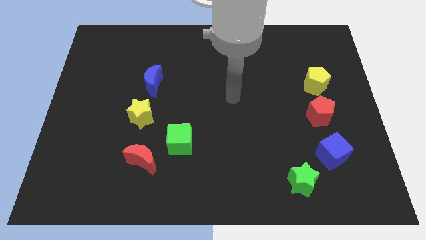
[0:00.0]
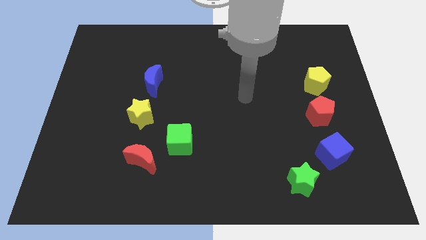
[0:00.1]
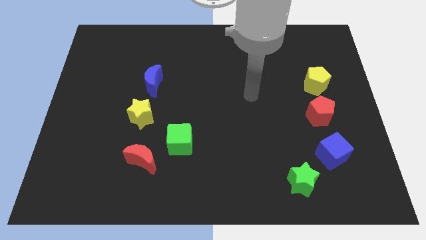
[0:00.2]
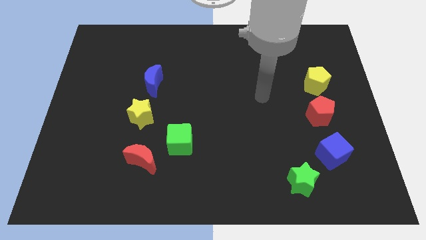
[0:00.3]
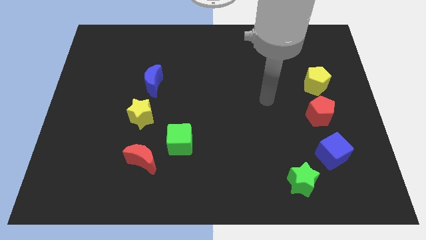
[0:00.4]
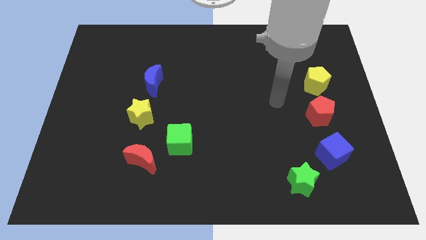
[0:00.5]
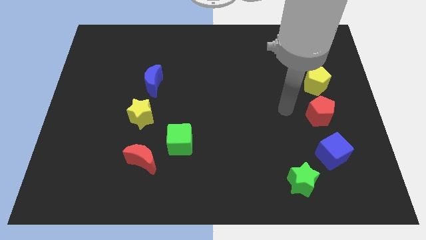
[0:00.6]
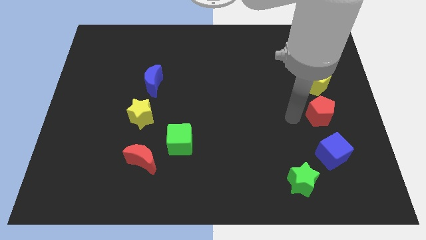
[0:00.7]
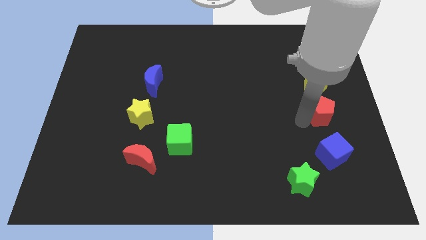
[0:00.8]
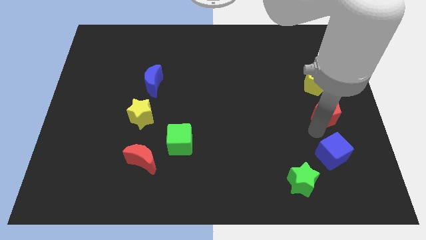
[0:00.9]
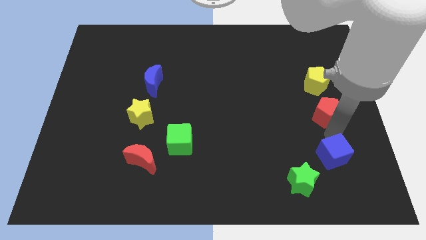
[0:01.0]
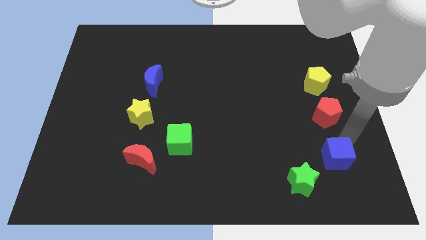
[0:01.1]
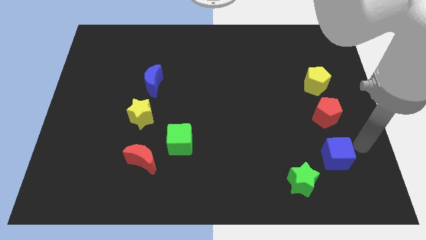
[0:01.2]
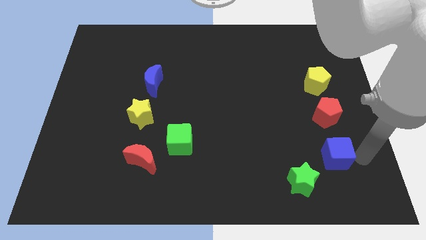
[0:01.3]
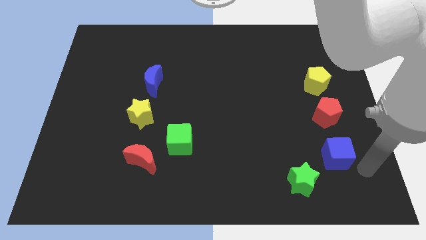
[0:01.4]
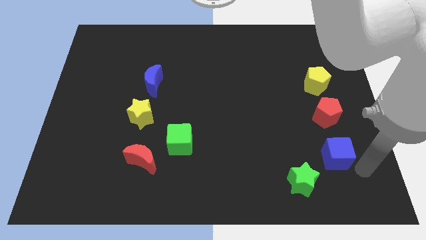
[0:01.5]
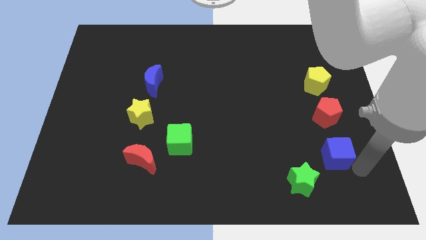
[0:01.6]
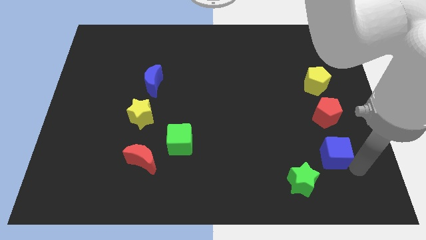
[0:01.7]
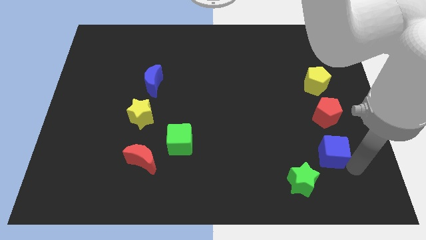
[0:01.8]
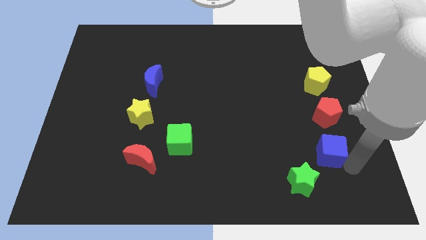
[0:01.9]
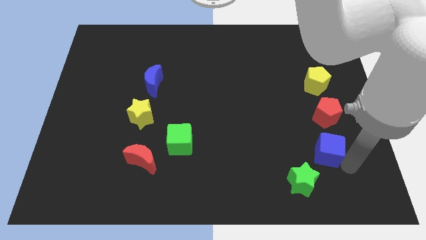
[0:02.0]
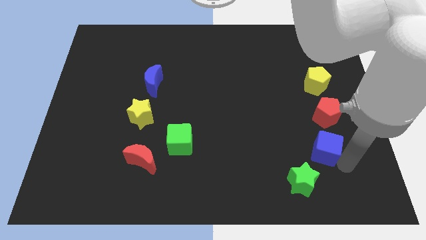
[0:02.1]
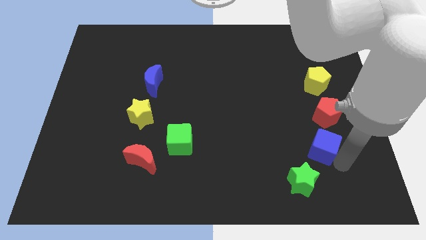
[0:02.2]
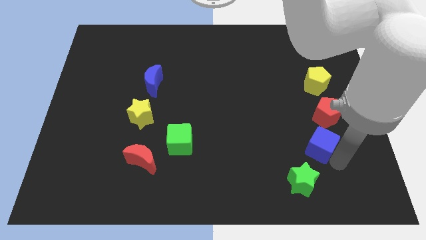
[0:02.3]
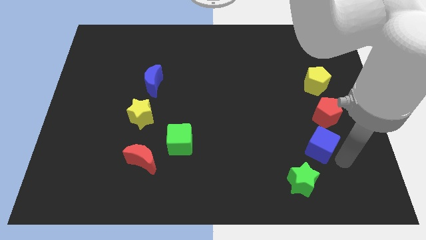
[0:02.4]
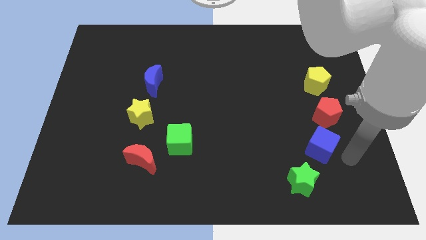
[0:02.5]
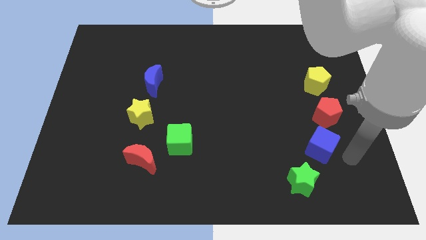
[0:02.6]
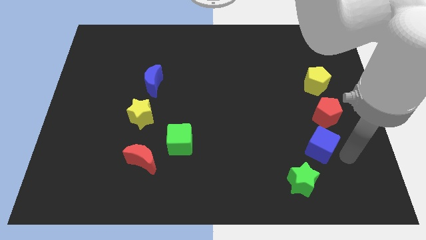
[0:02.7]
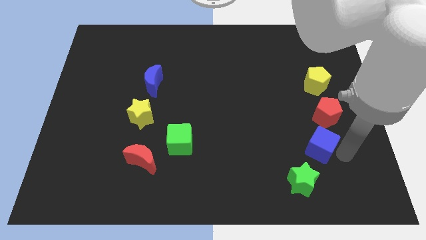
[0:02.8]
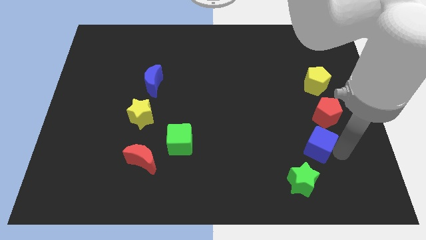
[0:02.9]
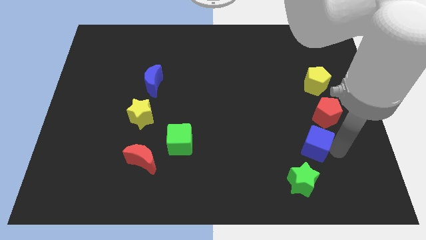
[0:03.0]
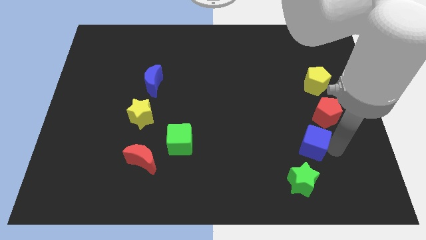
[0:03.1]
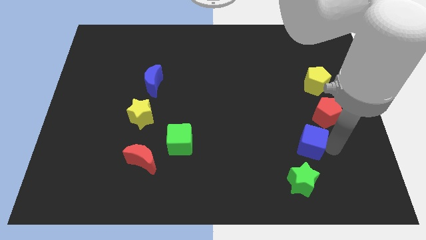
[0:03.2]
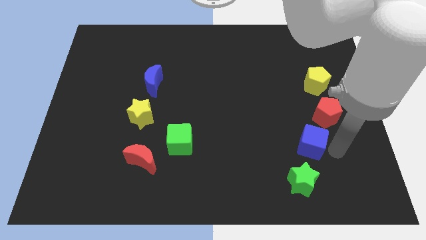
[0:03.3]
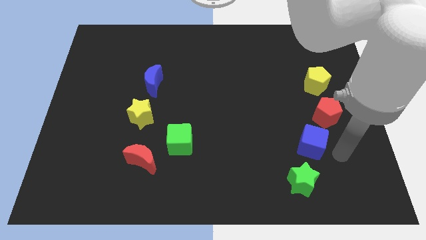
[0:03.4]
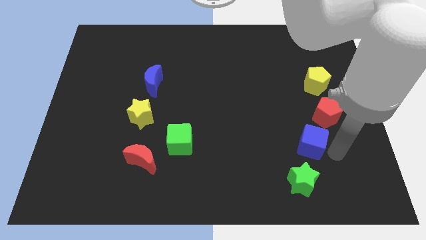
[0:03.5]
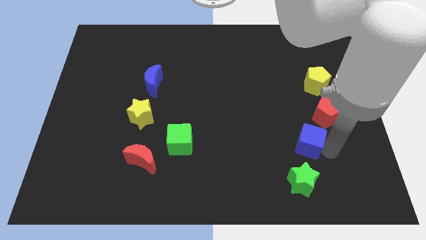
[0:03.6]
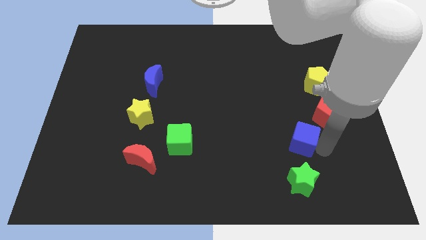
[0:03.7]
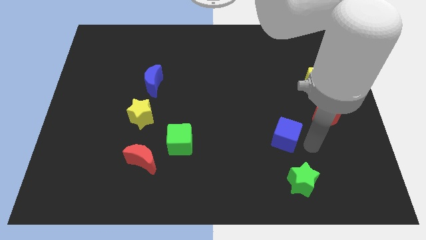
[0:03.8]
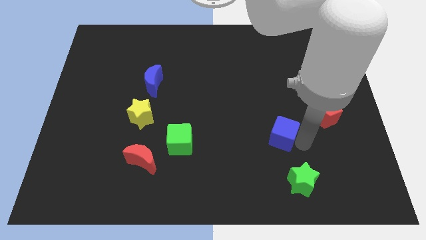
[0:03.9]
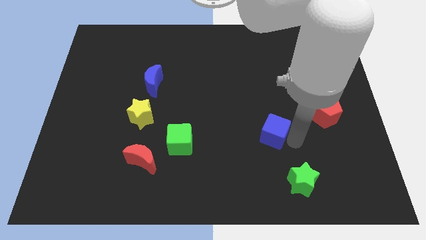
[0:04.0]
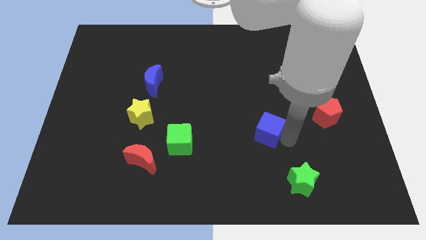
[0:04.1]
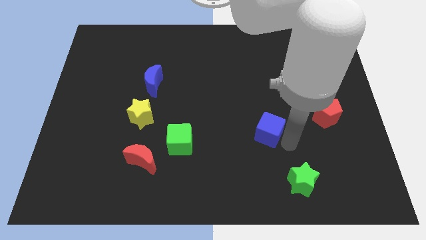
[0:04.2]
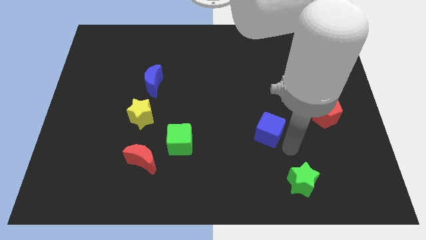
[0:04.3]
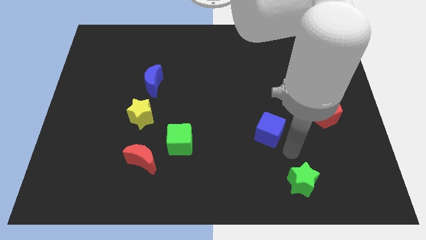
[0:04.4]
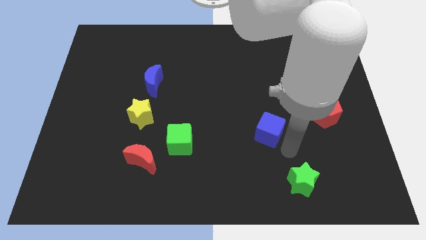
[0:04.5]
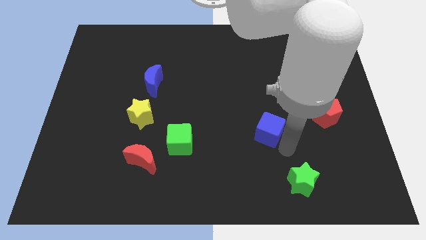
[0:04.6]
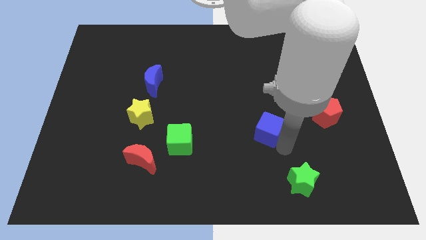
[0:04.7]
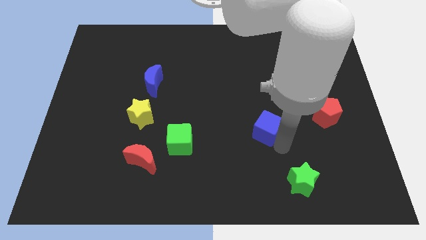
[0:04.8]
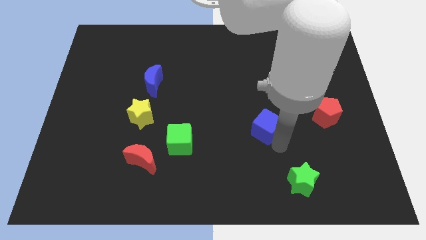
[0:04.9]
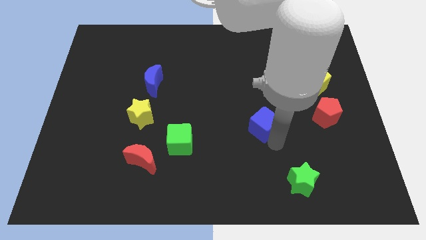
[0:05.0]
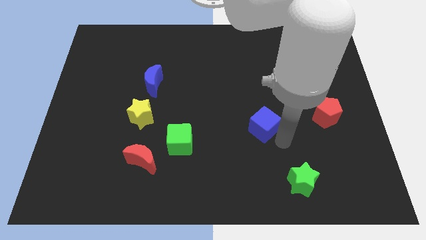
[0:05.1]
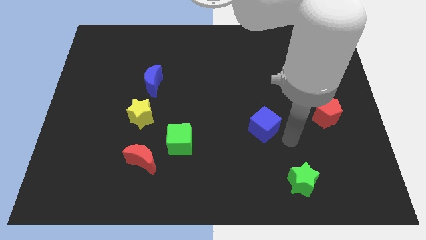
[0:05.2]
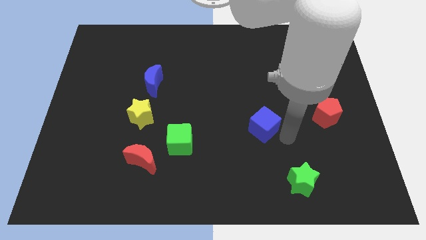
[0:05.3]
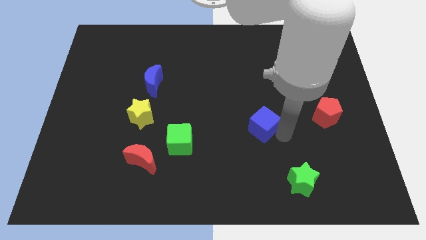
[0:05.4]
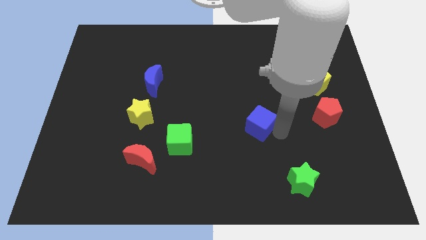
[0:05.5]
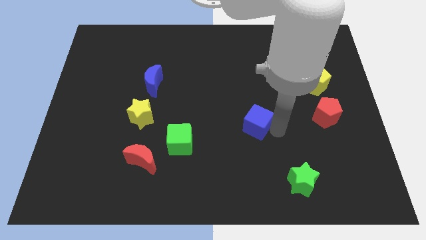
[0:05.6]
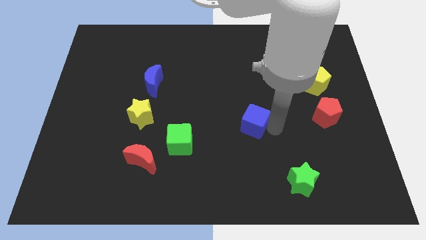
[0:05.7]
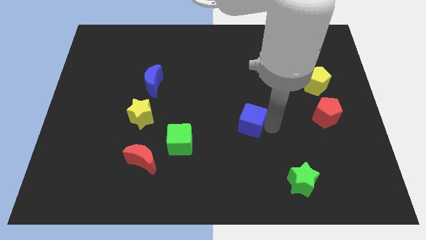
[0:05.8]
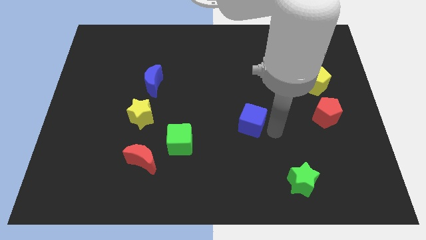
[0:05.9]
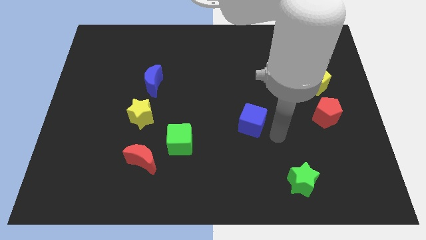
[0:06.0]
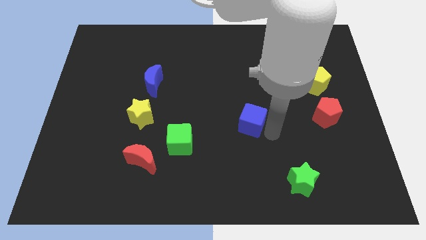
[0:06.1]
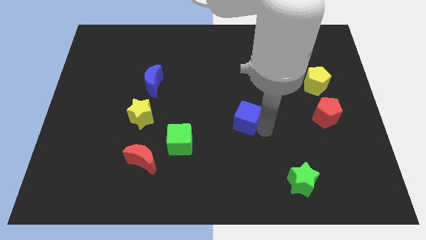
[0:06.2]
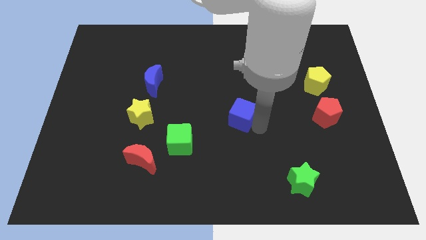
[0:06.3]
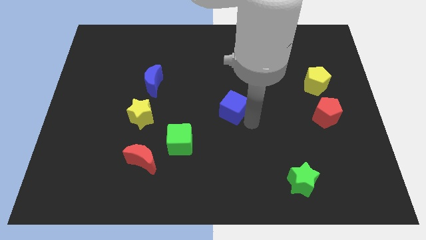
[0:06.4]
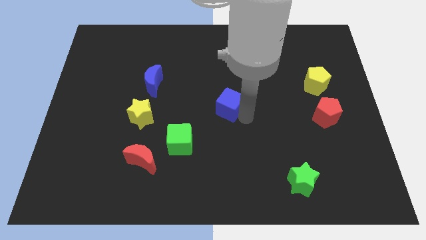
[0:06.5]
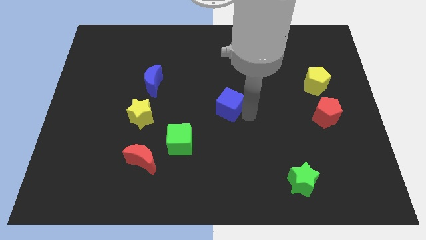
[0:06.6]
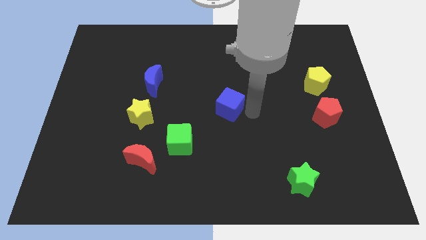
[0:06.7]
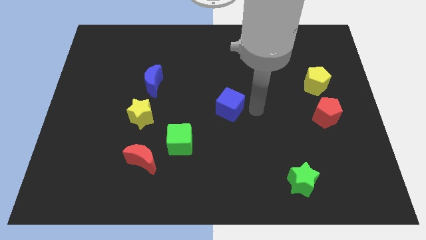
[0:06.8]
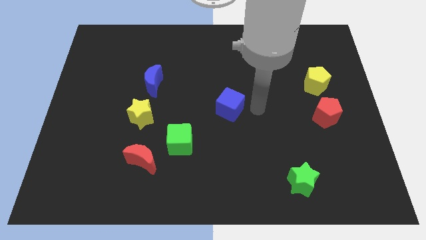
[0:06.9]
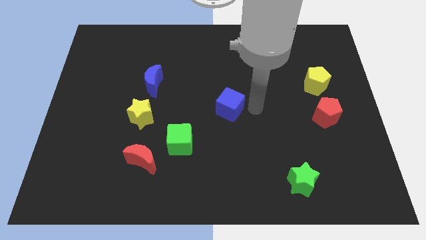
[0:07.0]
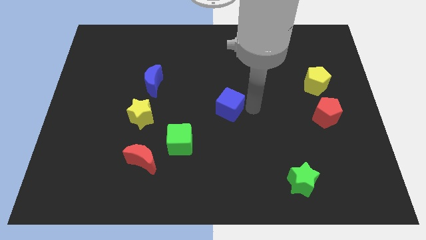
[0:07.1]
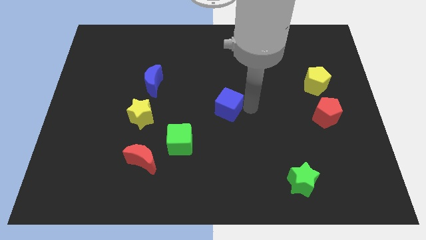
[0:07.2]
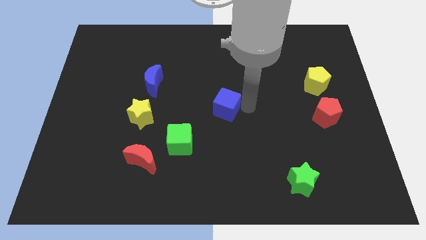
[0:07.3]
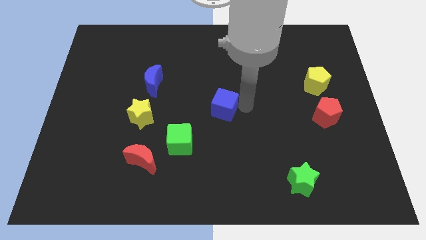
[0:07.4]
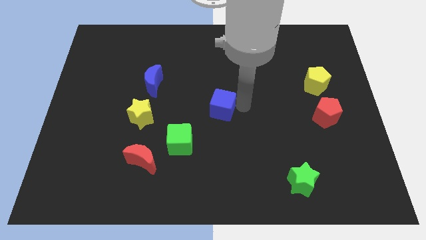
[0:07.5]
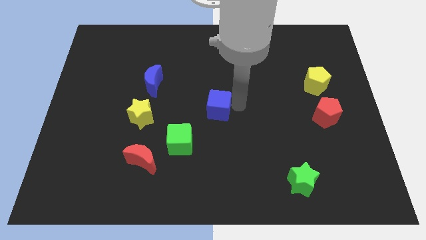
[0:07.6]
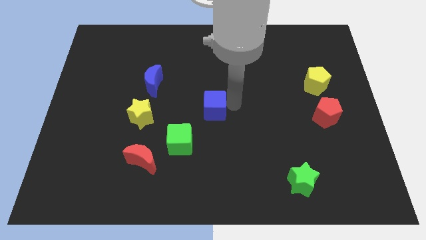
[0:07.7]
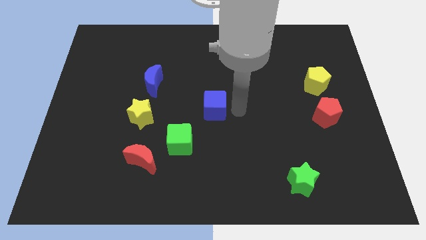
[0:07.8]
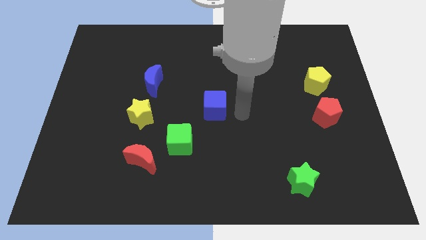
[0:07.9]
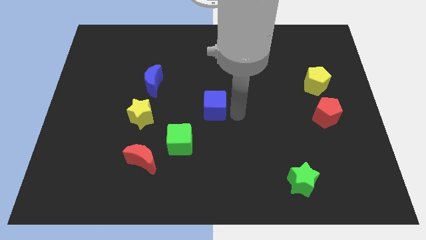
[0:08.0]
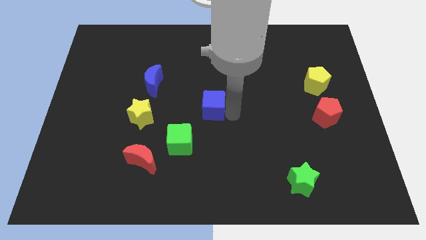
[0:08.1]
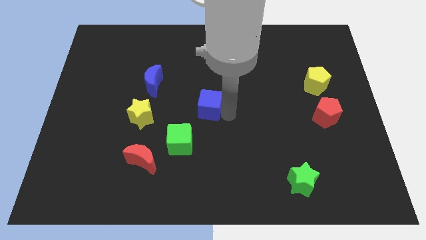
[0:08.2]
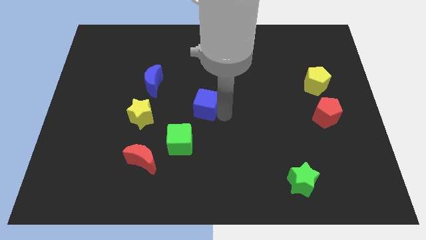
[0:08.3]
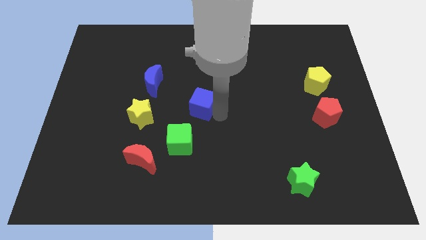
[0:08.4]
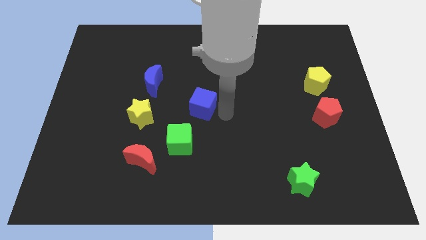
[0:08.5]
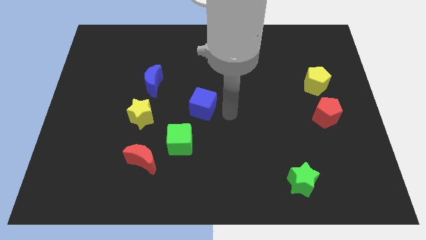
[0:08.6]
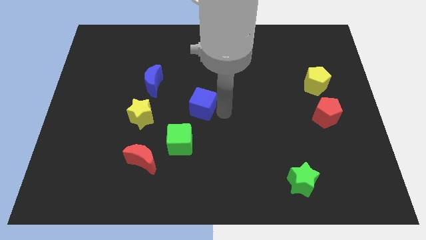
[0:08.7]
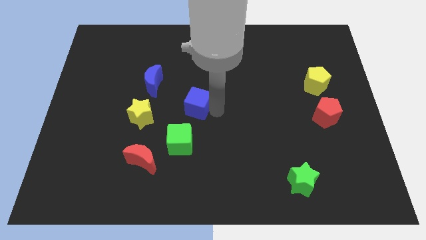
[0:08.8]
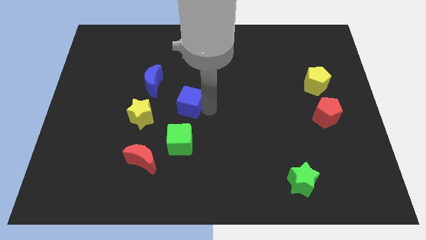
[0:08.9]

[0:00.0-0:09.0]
push the blue cube to the bottom right of the blue moon
